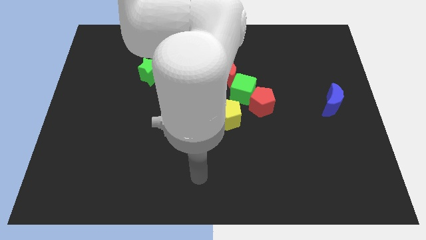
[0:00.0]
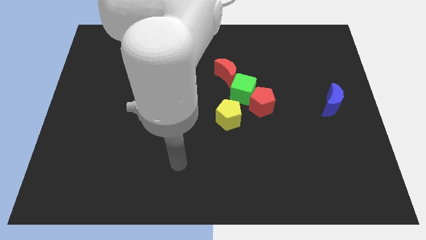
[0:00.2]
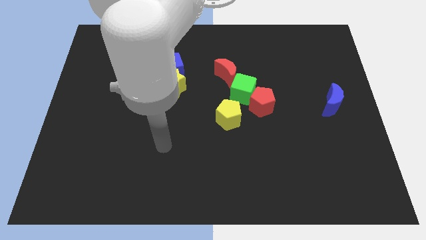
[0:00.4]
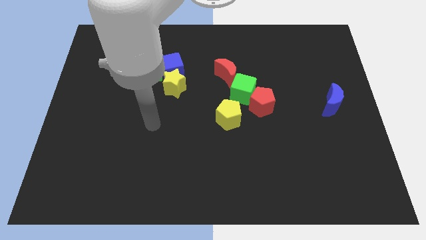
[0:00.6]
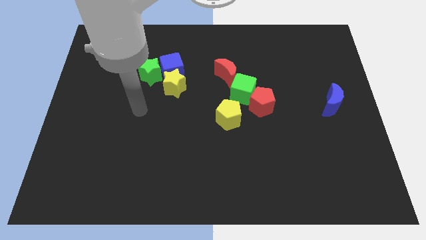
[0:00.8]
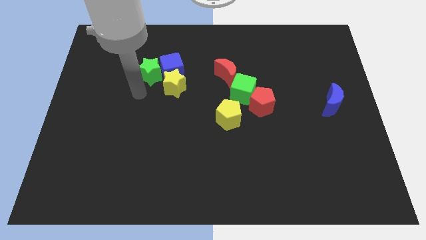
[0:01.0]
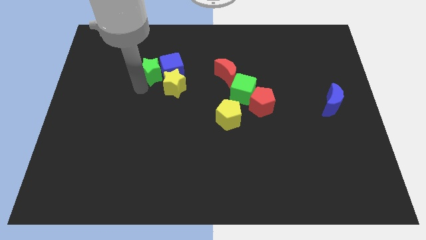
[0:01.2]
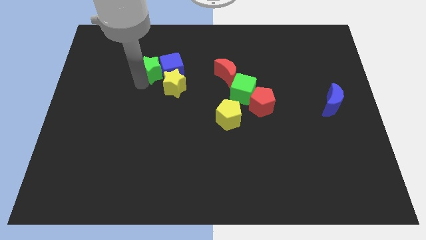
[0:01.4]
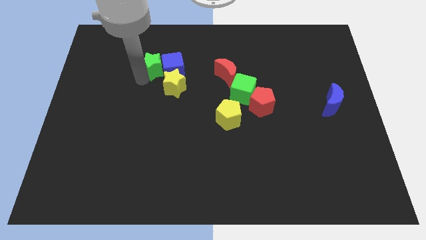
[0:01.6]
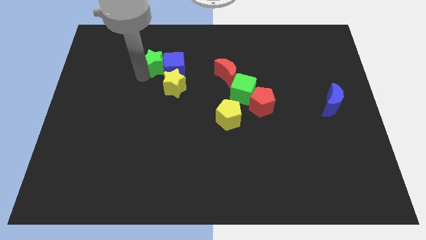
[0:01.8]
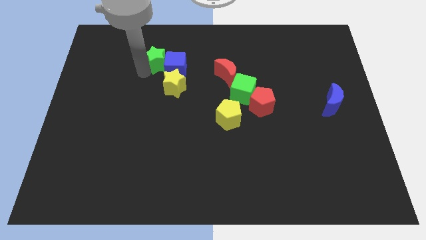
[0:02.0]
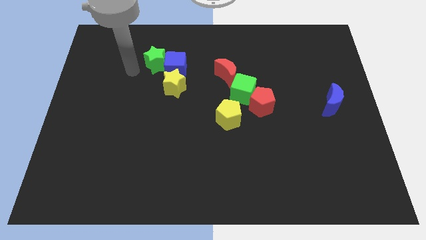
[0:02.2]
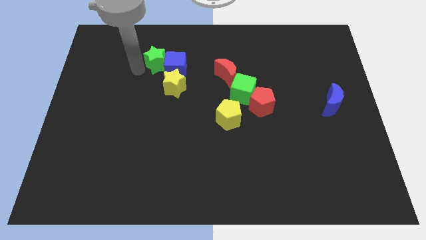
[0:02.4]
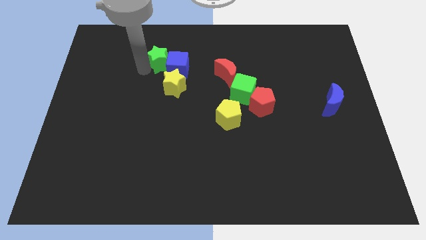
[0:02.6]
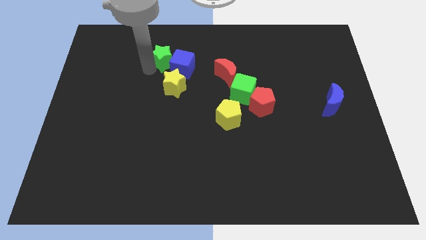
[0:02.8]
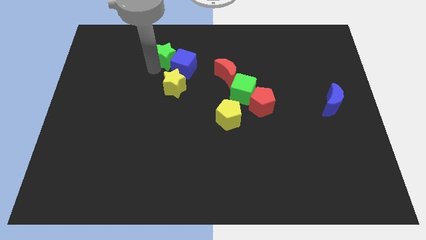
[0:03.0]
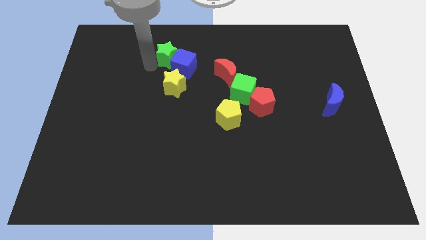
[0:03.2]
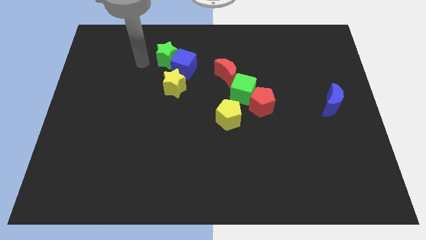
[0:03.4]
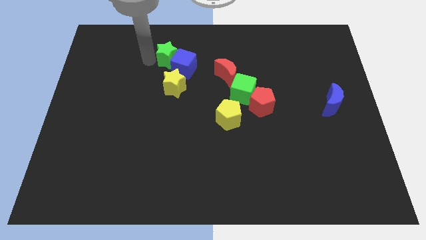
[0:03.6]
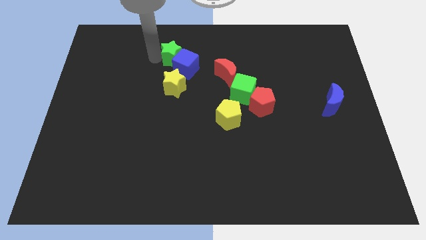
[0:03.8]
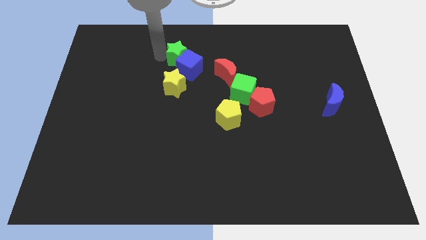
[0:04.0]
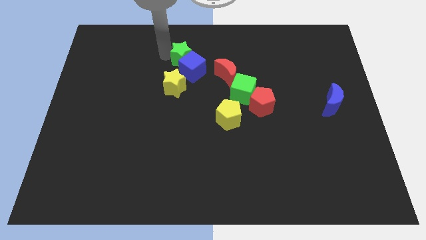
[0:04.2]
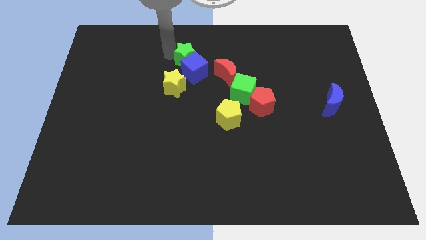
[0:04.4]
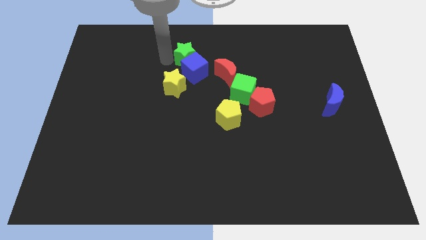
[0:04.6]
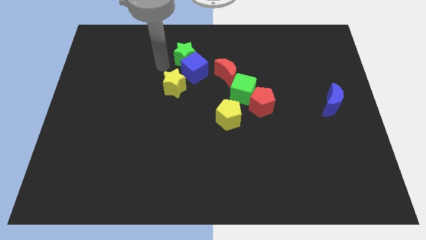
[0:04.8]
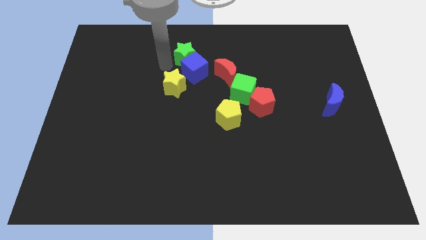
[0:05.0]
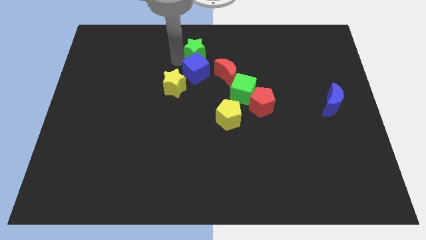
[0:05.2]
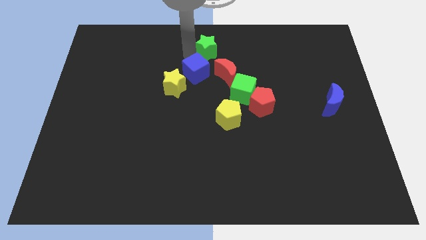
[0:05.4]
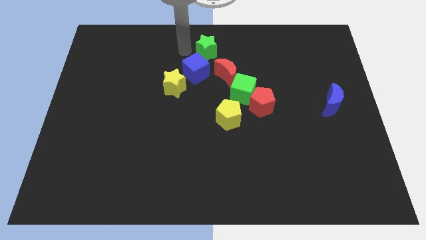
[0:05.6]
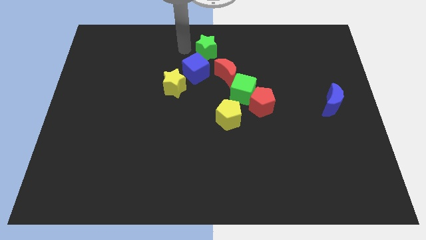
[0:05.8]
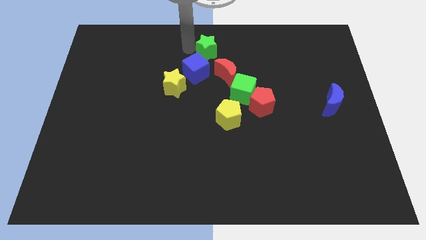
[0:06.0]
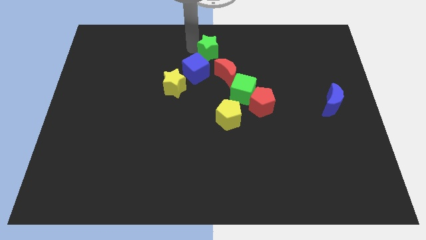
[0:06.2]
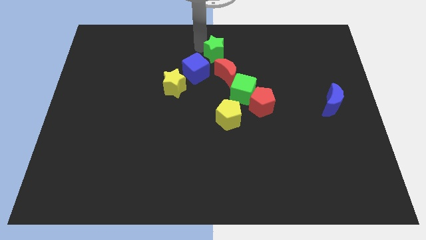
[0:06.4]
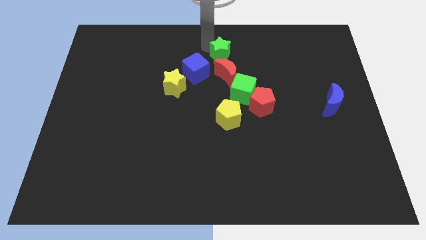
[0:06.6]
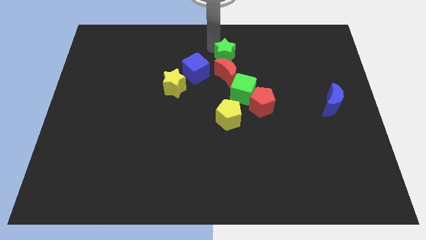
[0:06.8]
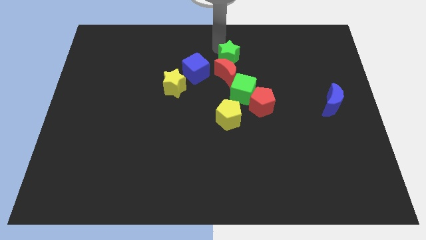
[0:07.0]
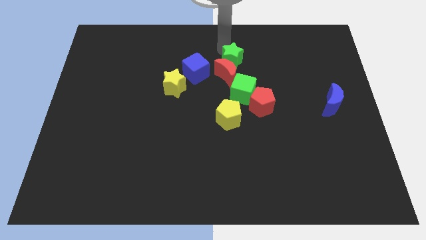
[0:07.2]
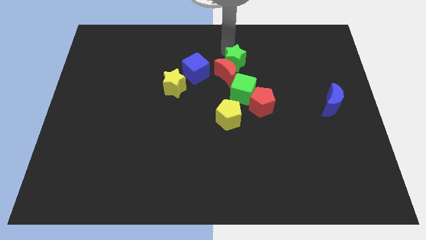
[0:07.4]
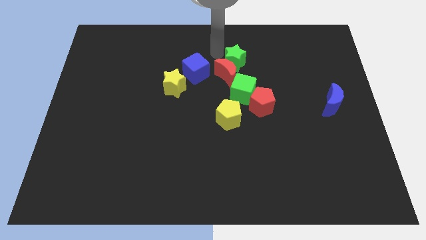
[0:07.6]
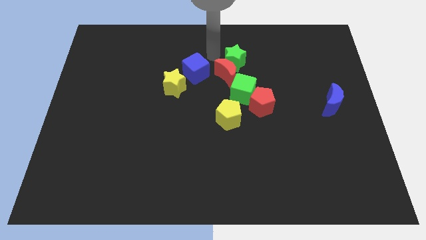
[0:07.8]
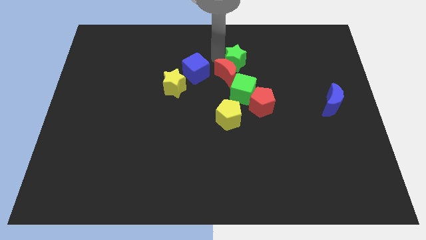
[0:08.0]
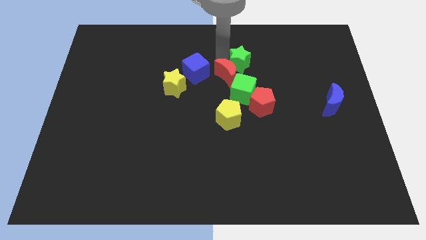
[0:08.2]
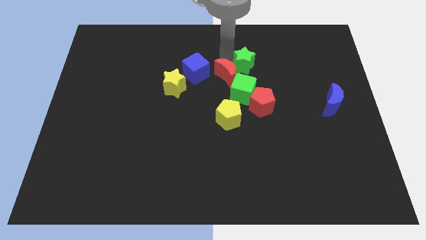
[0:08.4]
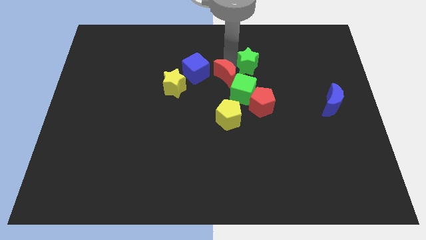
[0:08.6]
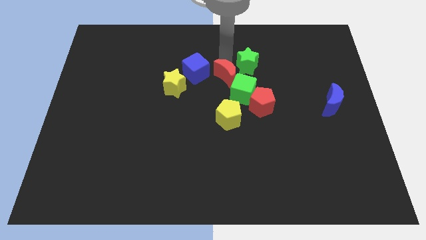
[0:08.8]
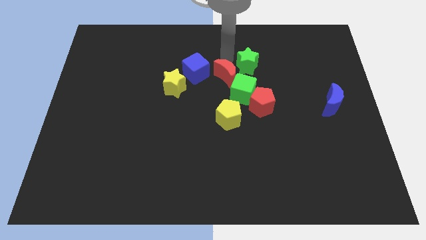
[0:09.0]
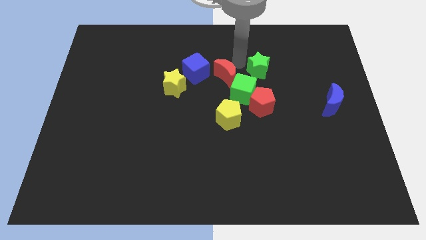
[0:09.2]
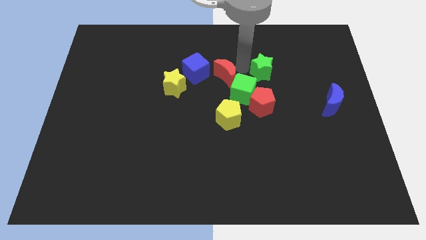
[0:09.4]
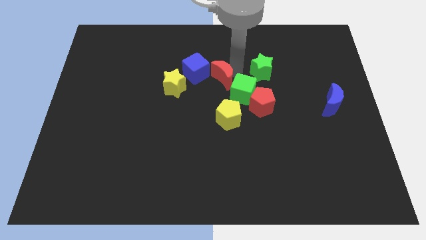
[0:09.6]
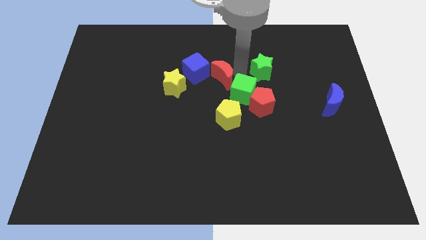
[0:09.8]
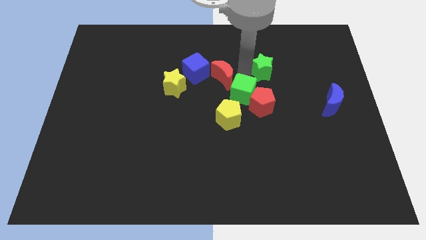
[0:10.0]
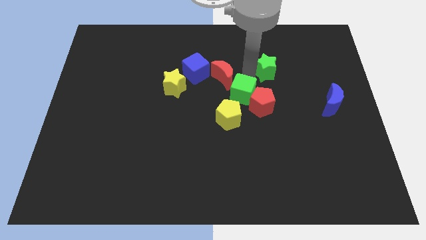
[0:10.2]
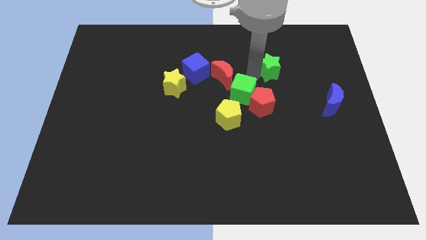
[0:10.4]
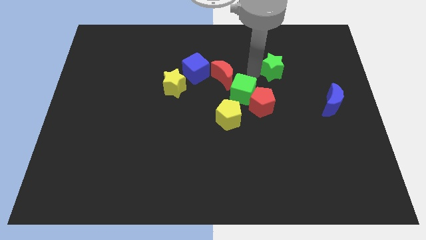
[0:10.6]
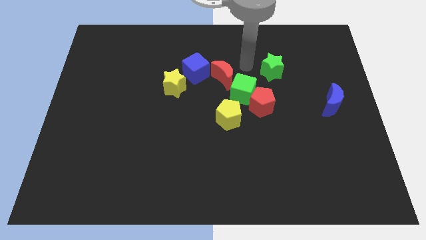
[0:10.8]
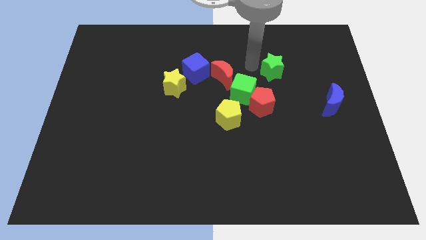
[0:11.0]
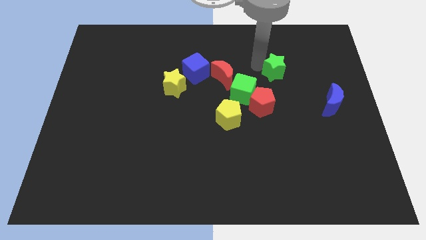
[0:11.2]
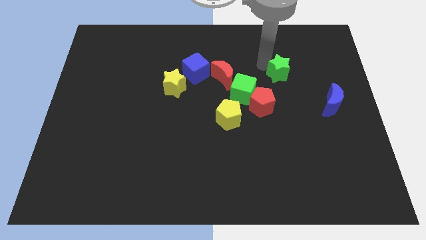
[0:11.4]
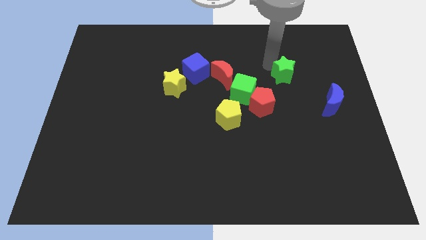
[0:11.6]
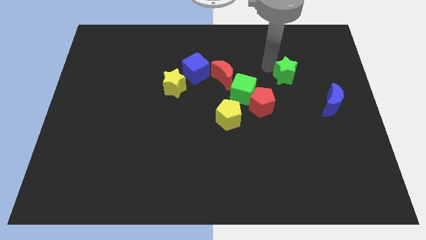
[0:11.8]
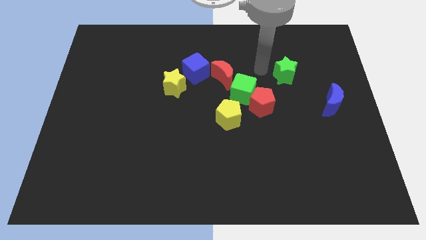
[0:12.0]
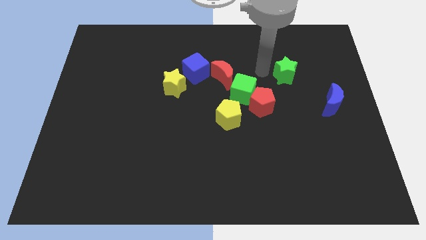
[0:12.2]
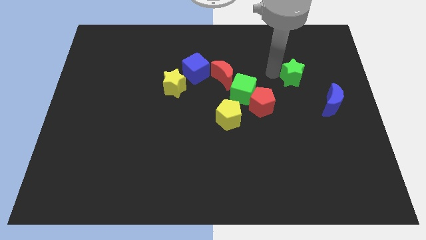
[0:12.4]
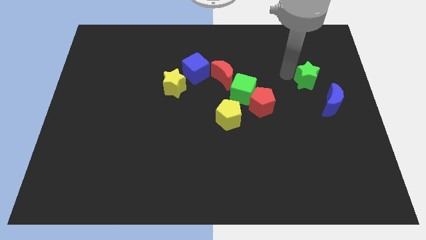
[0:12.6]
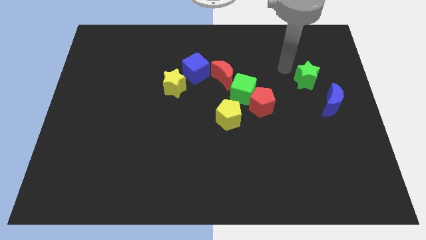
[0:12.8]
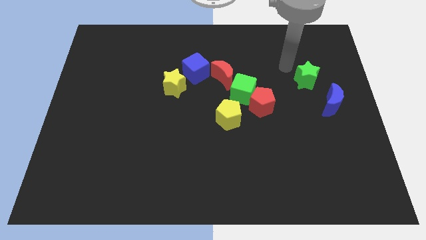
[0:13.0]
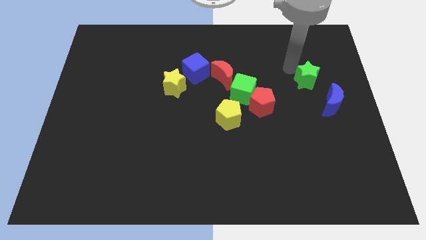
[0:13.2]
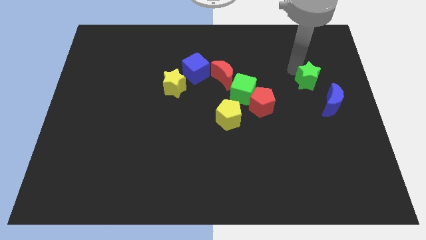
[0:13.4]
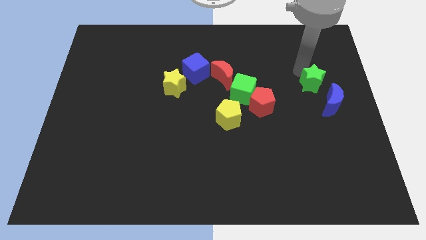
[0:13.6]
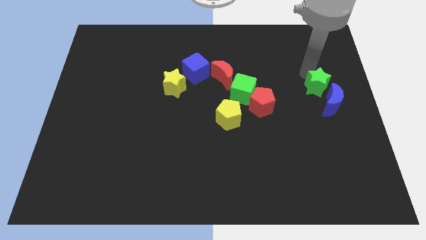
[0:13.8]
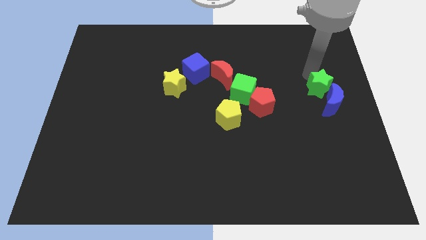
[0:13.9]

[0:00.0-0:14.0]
push the green star to the blue moon
